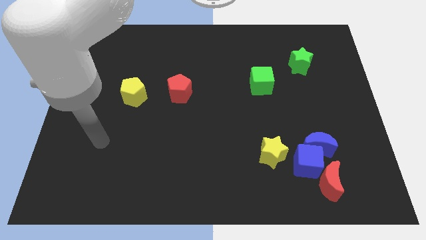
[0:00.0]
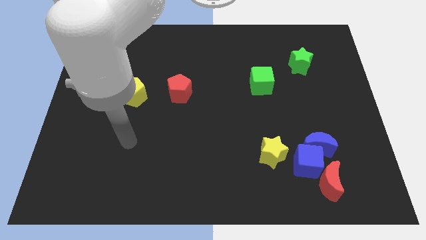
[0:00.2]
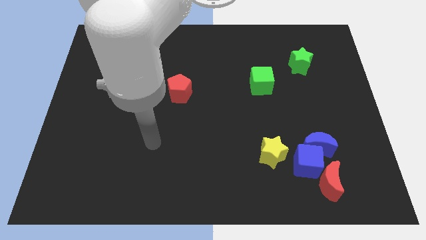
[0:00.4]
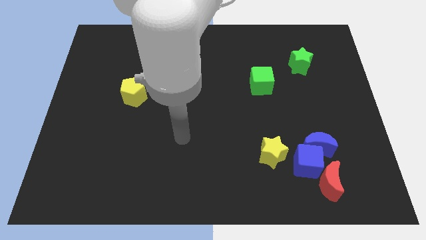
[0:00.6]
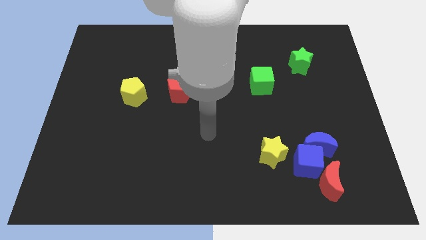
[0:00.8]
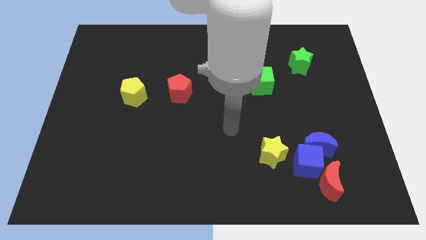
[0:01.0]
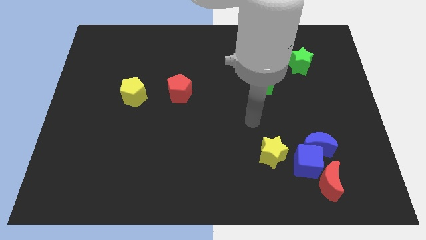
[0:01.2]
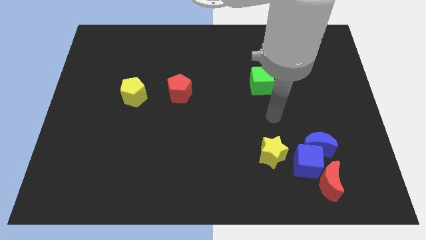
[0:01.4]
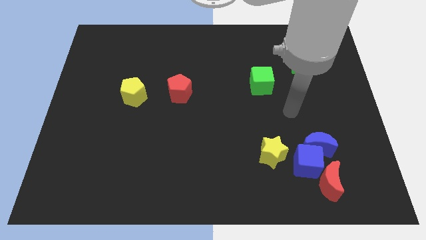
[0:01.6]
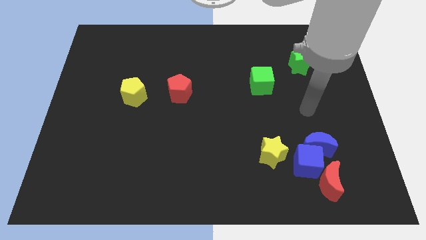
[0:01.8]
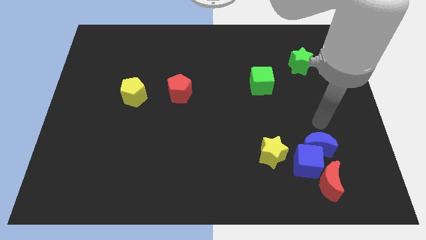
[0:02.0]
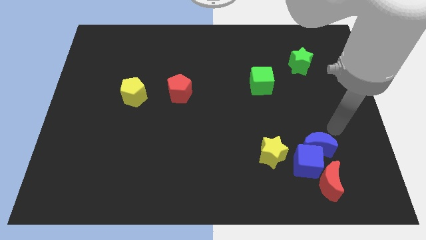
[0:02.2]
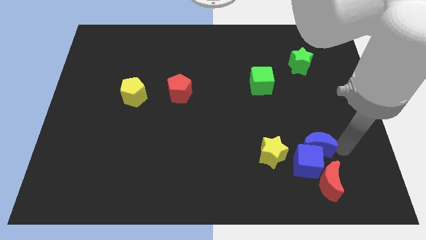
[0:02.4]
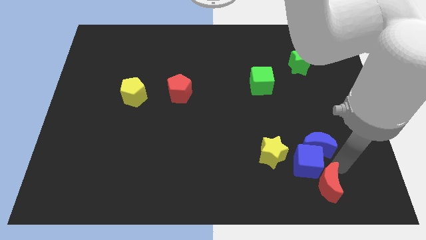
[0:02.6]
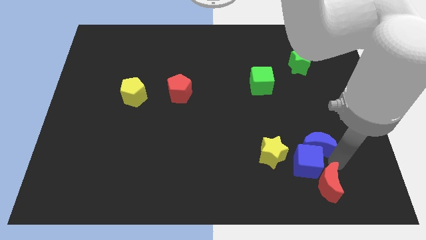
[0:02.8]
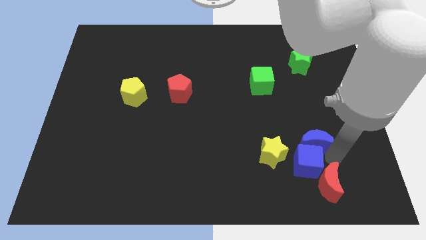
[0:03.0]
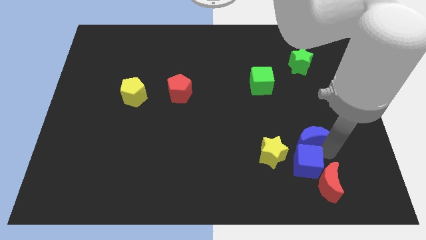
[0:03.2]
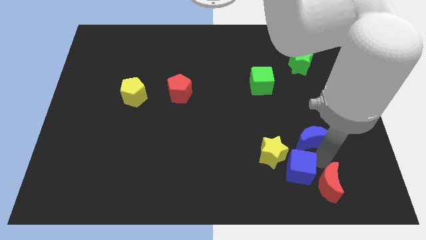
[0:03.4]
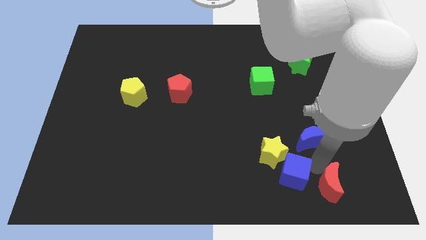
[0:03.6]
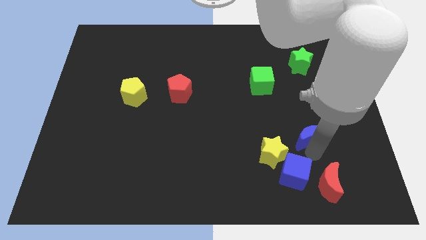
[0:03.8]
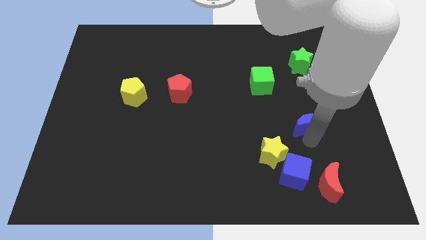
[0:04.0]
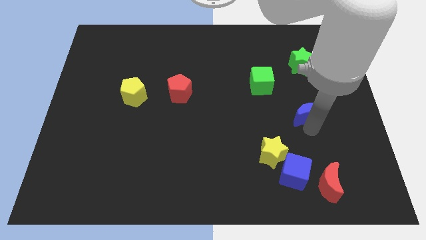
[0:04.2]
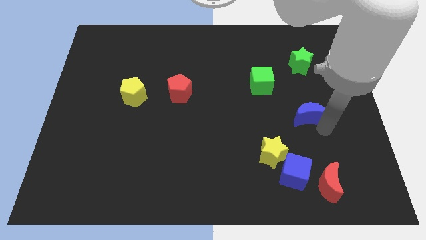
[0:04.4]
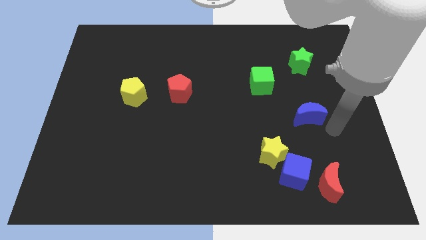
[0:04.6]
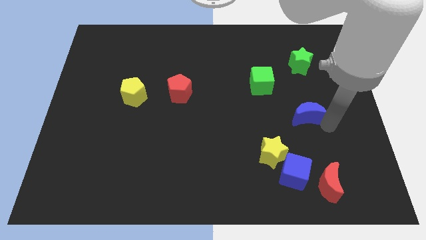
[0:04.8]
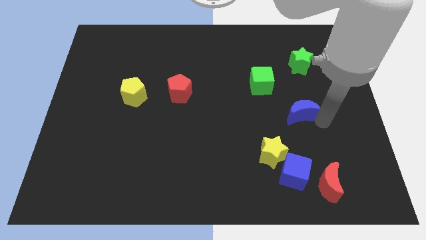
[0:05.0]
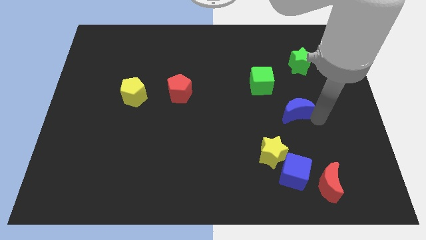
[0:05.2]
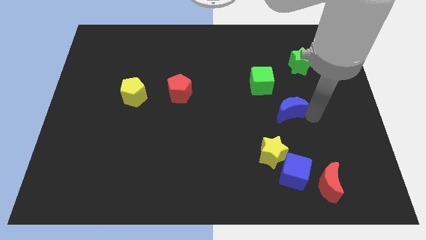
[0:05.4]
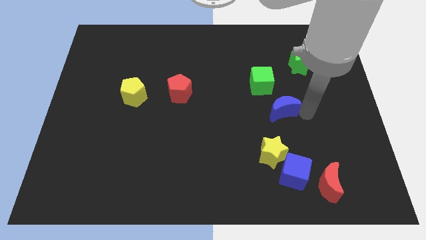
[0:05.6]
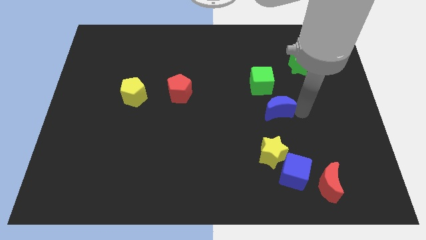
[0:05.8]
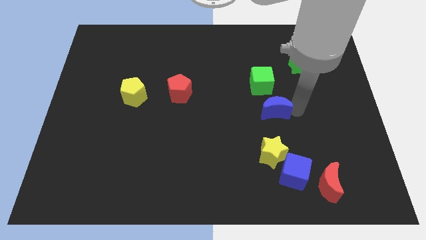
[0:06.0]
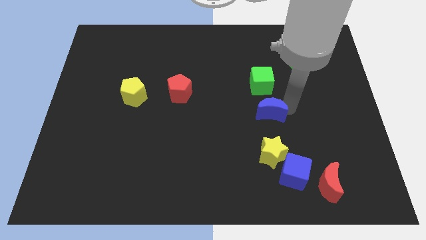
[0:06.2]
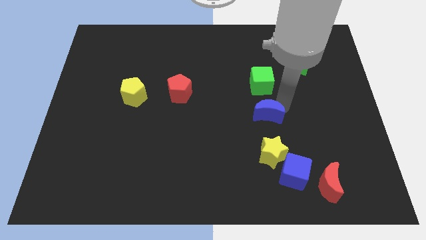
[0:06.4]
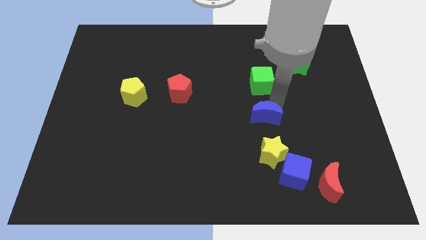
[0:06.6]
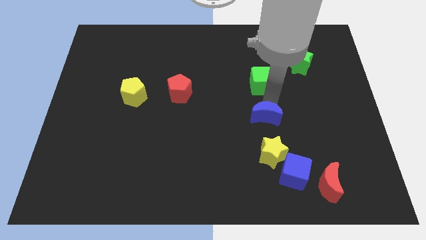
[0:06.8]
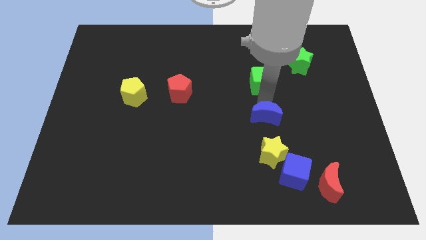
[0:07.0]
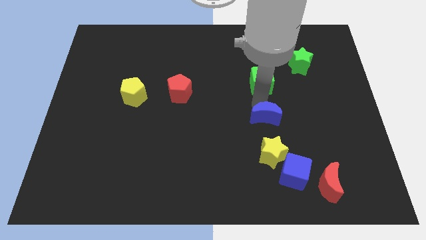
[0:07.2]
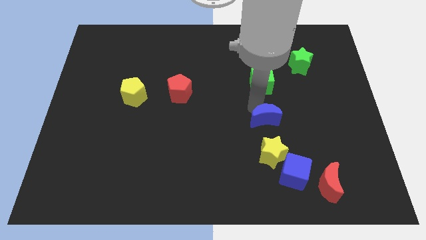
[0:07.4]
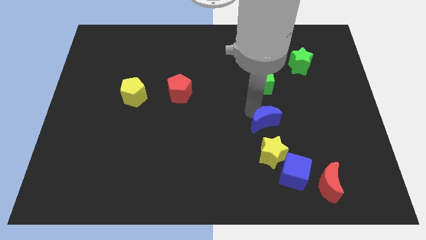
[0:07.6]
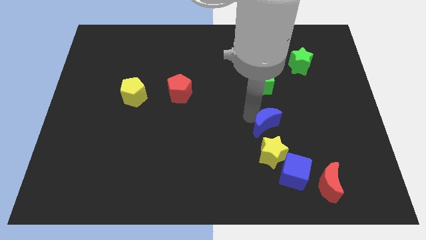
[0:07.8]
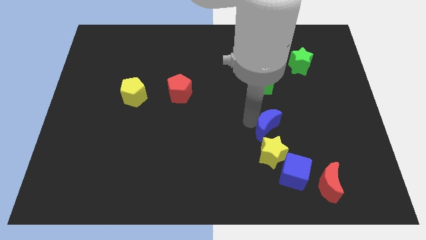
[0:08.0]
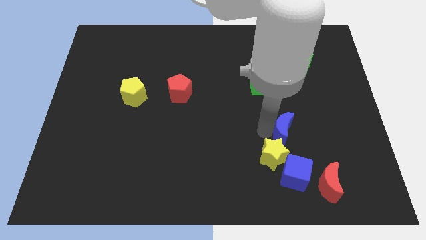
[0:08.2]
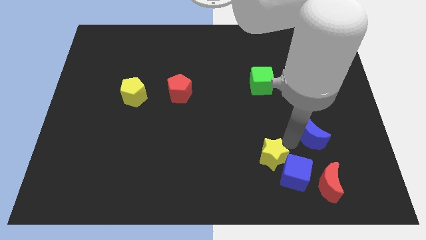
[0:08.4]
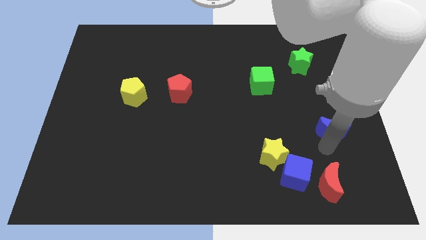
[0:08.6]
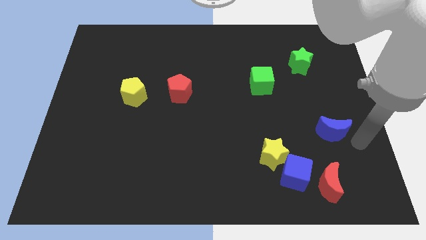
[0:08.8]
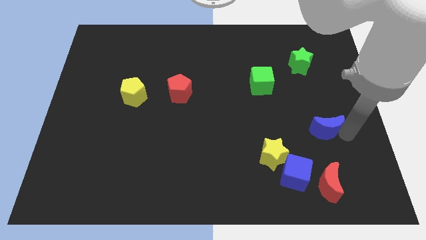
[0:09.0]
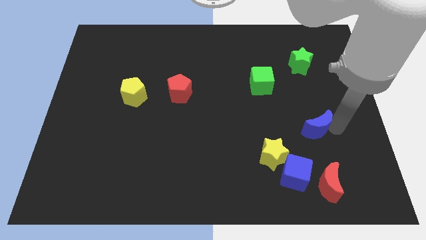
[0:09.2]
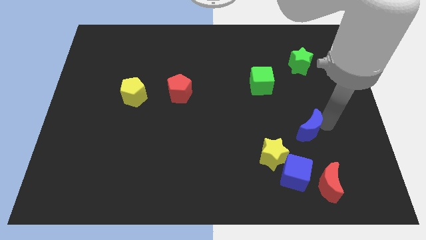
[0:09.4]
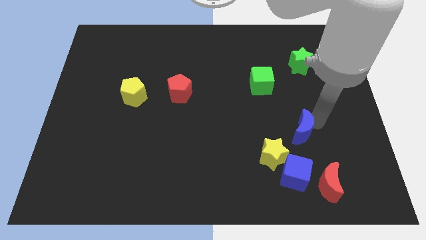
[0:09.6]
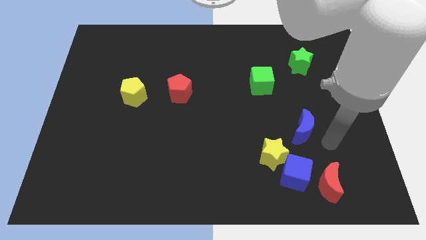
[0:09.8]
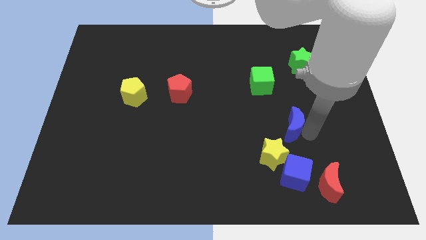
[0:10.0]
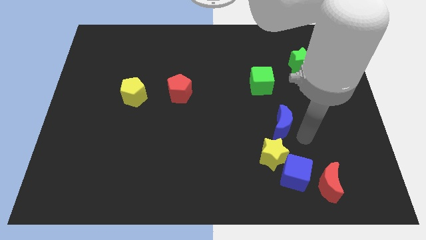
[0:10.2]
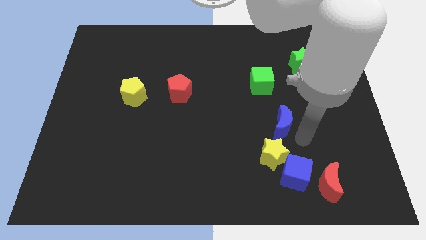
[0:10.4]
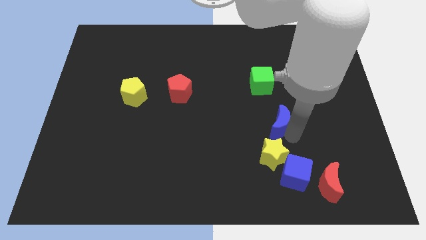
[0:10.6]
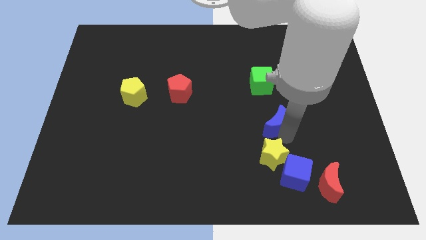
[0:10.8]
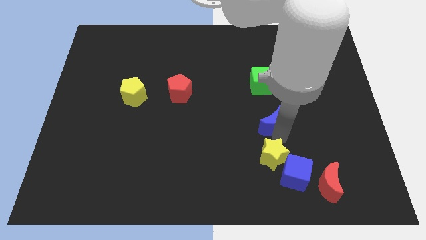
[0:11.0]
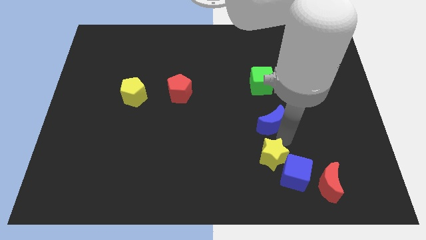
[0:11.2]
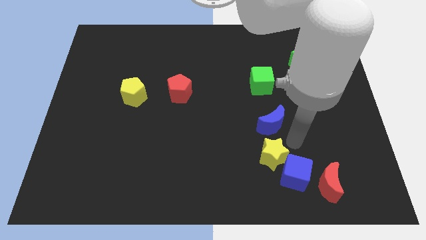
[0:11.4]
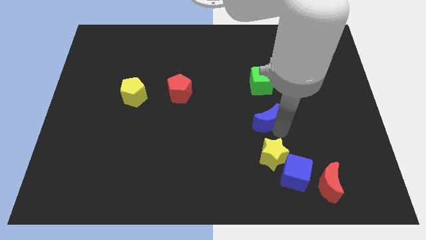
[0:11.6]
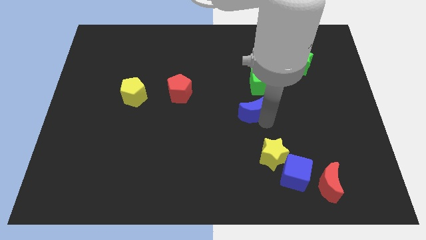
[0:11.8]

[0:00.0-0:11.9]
slide the blue moon to the bottom left of the green cube

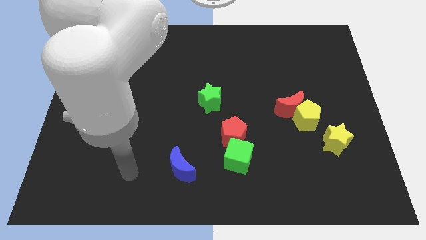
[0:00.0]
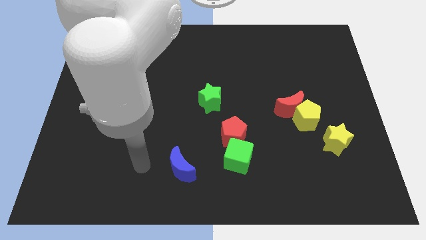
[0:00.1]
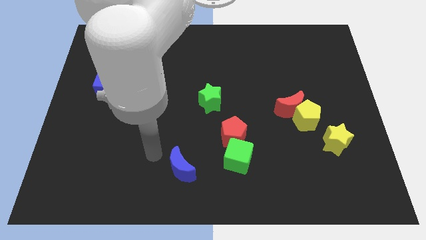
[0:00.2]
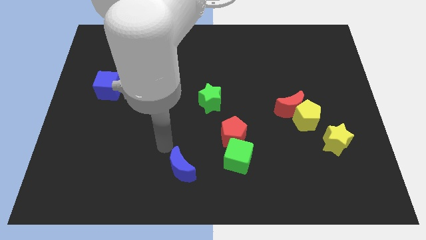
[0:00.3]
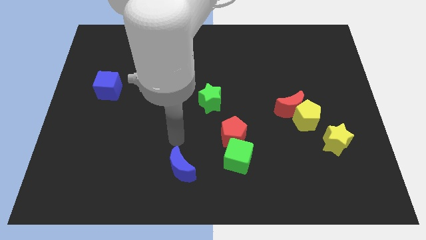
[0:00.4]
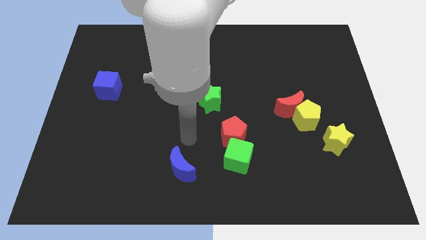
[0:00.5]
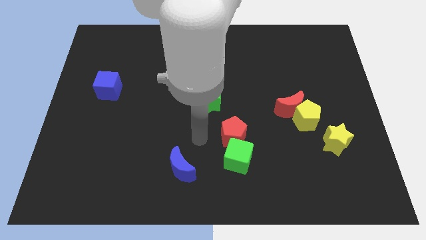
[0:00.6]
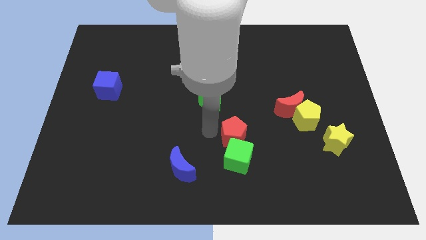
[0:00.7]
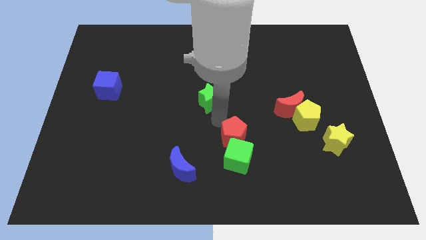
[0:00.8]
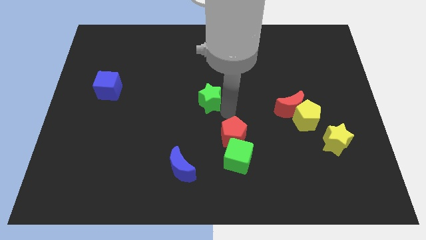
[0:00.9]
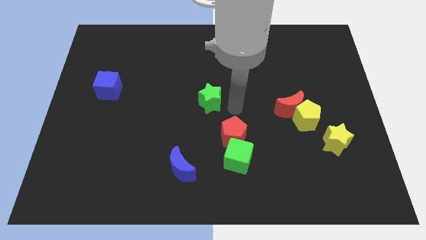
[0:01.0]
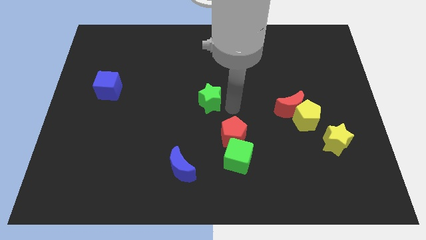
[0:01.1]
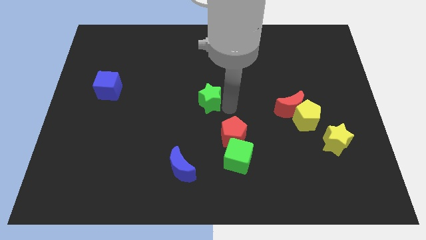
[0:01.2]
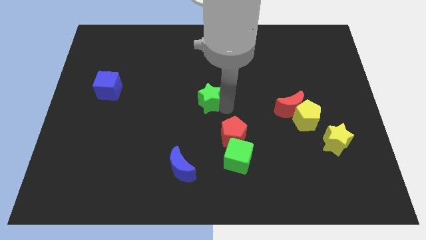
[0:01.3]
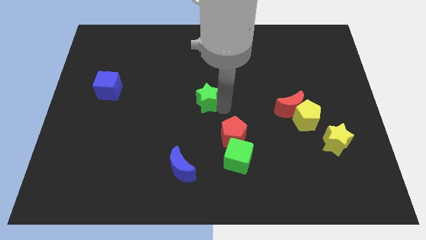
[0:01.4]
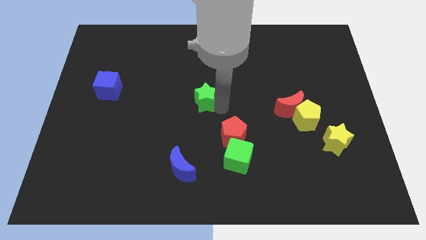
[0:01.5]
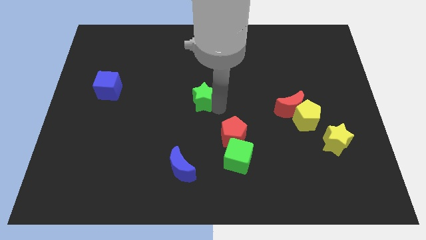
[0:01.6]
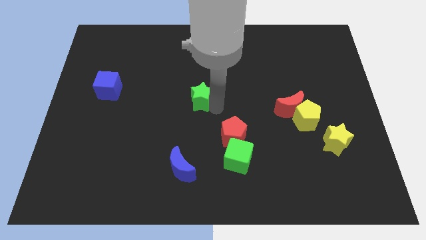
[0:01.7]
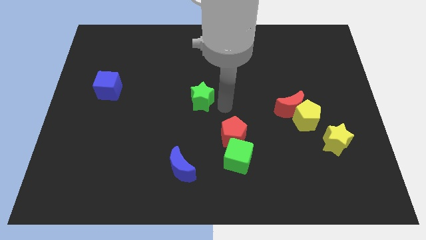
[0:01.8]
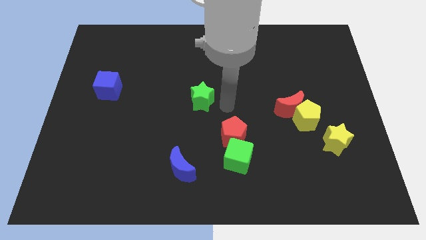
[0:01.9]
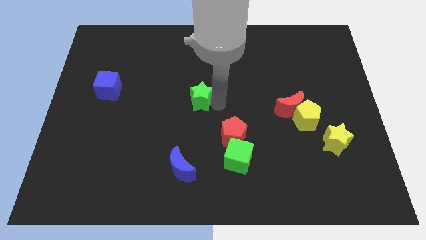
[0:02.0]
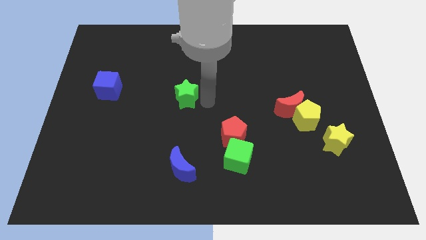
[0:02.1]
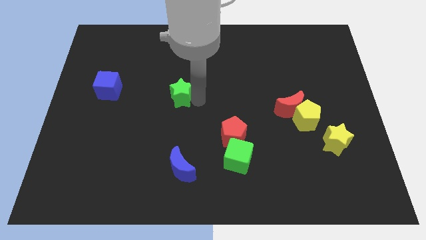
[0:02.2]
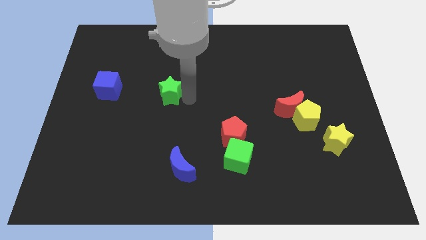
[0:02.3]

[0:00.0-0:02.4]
move the green star to the right side of the blue cube
